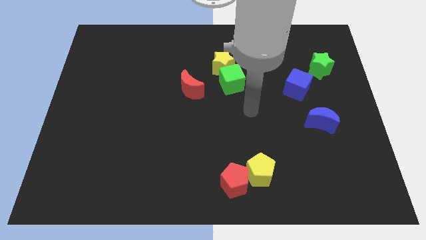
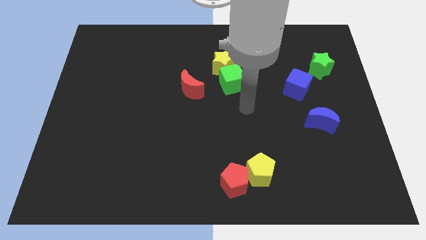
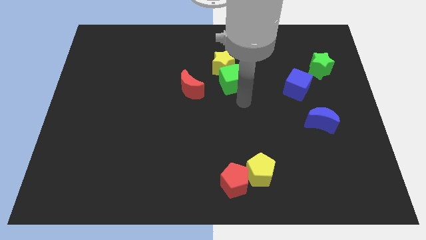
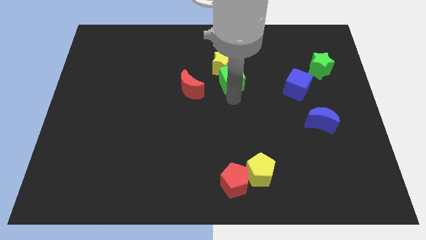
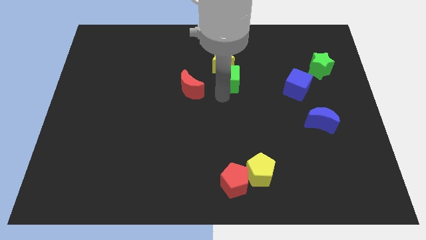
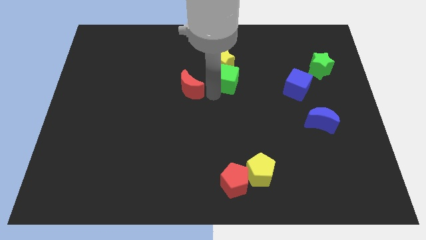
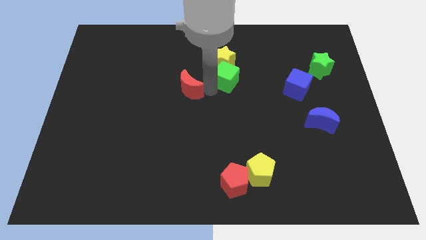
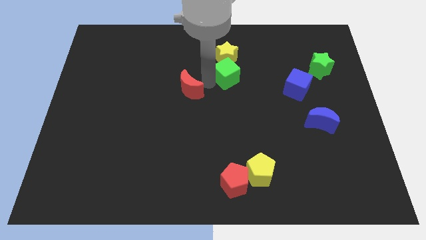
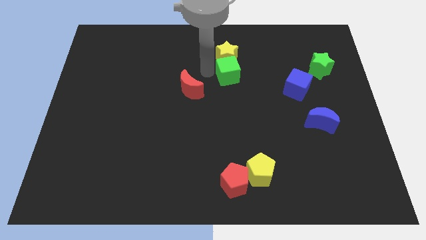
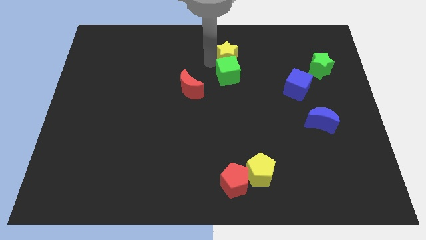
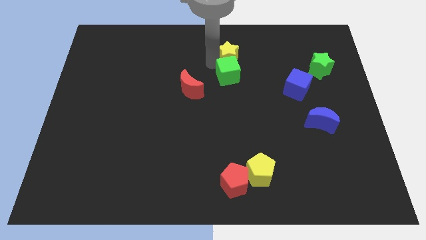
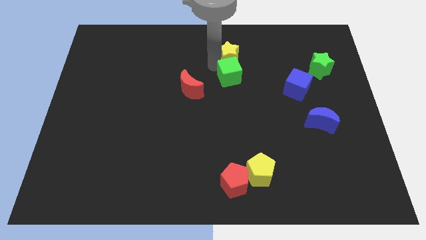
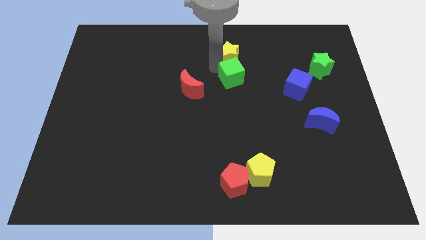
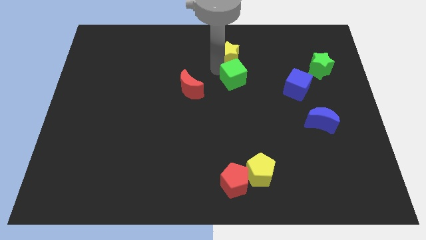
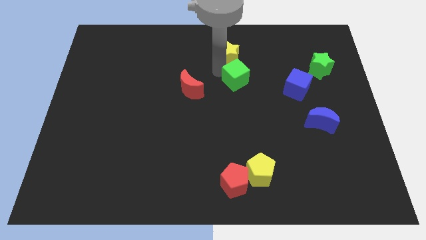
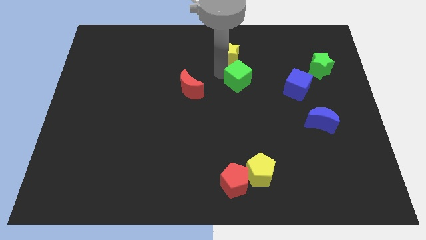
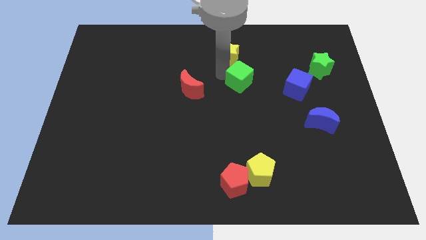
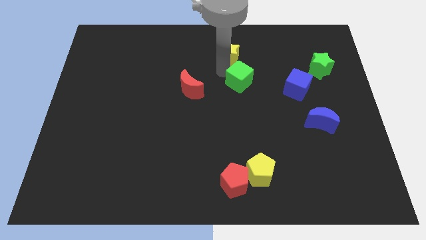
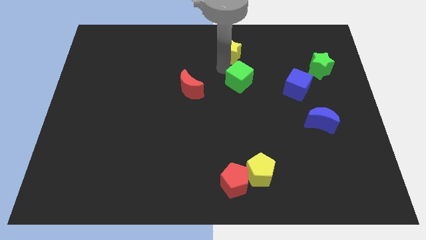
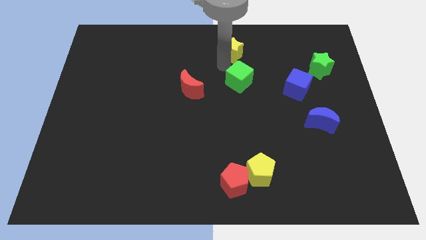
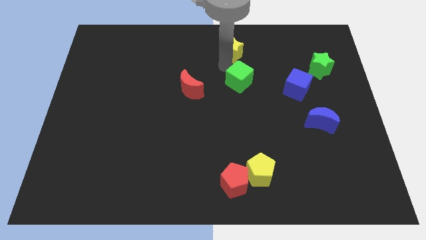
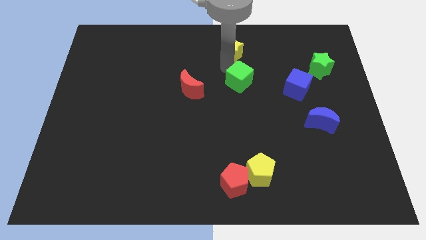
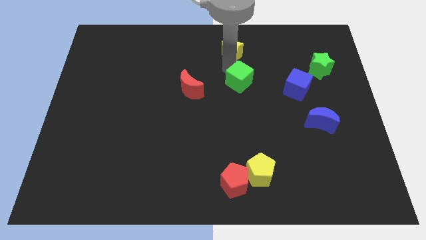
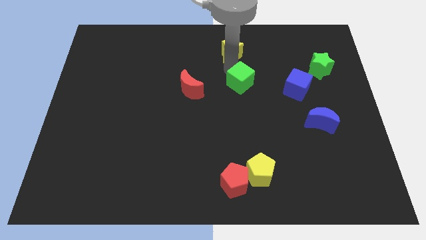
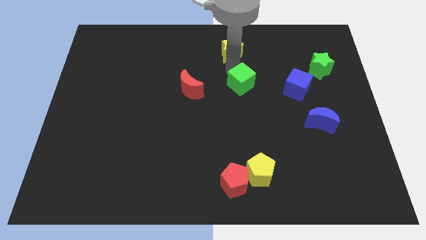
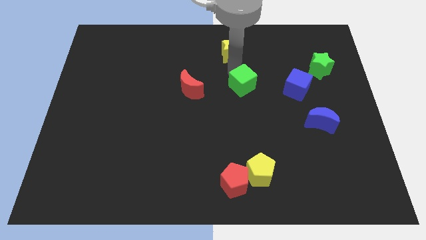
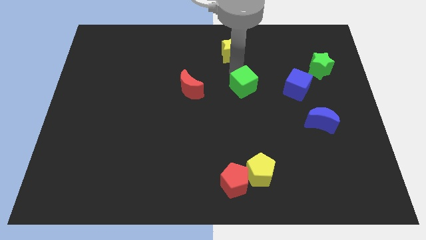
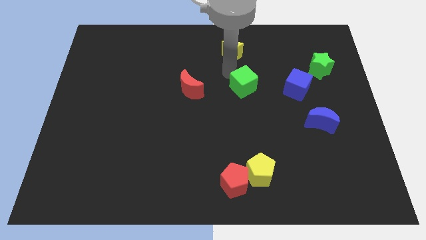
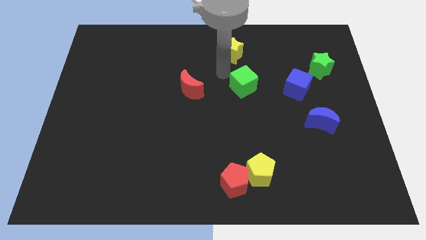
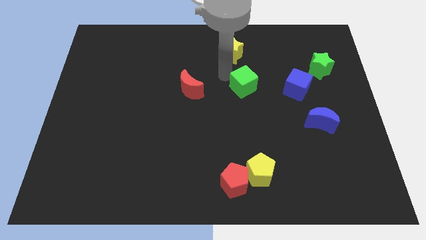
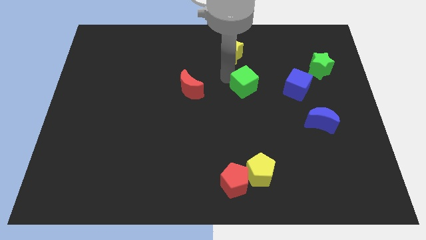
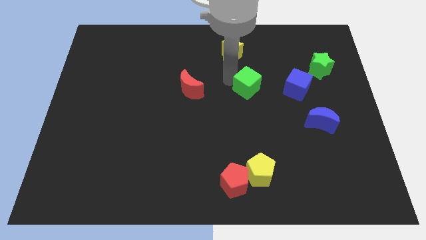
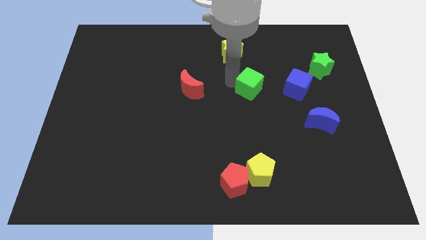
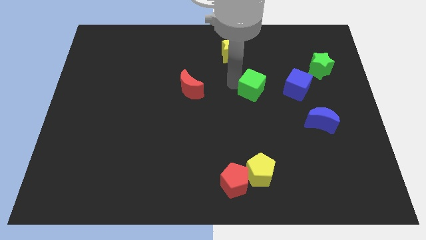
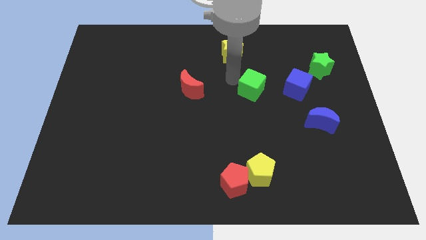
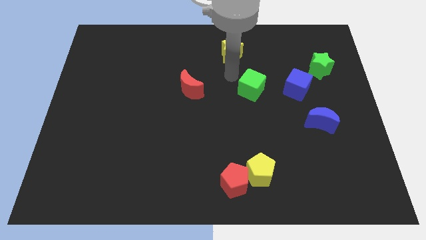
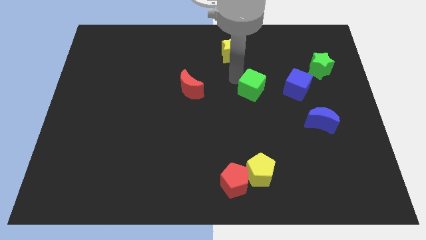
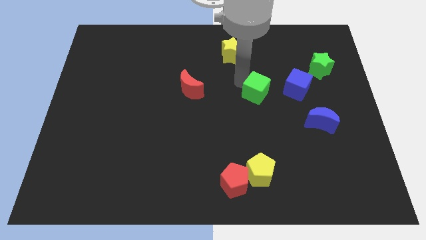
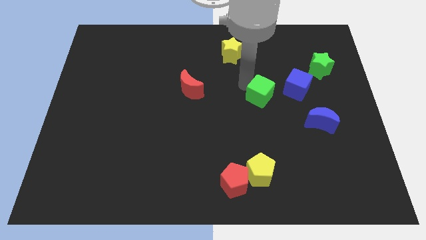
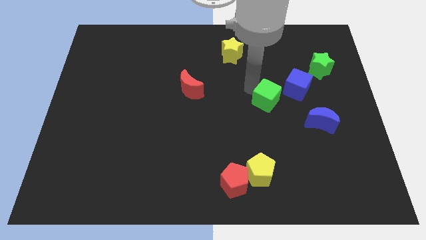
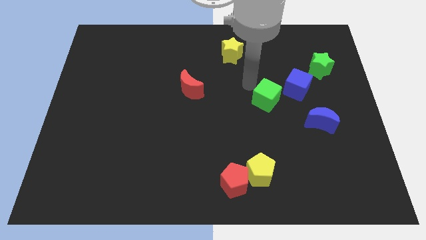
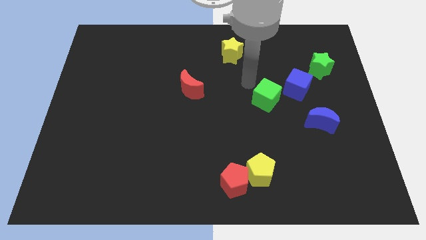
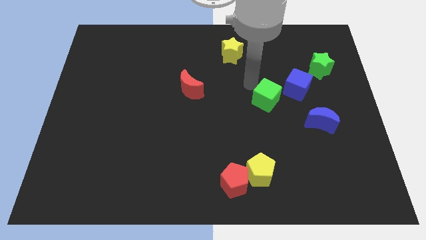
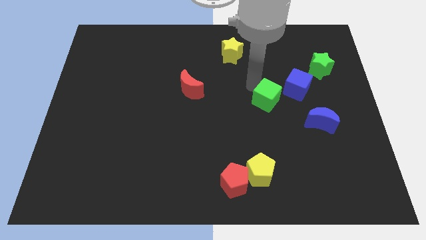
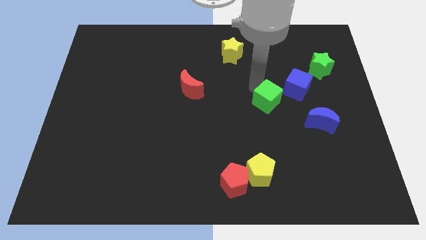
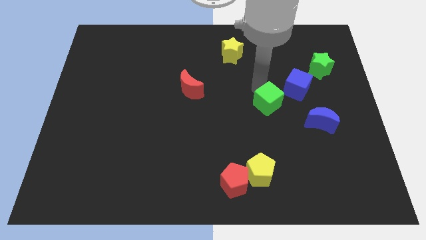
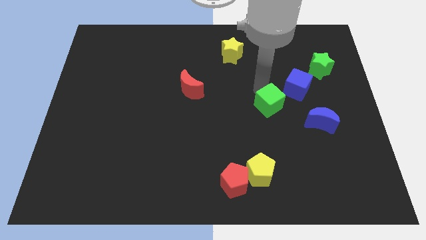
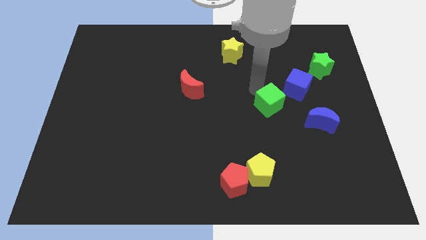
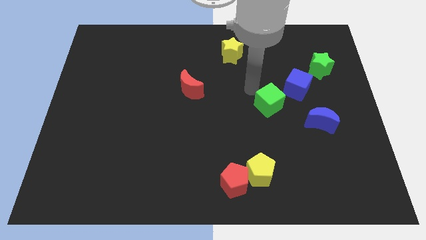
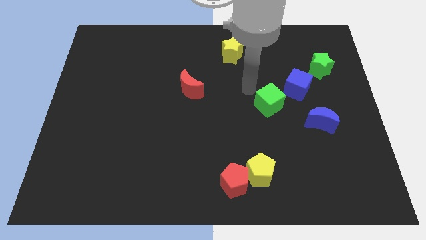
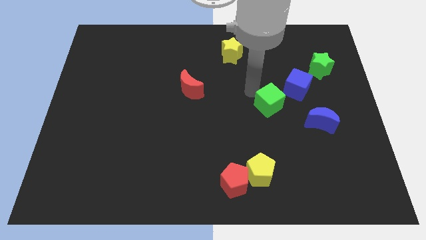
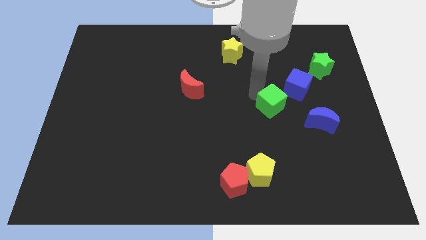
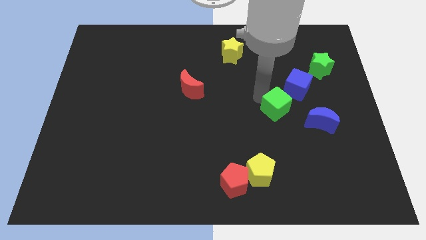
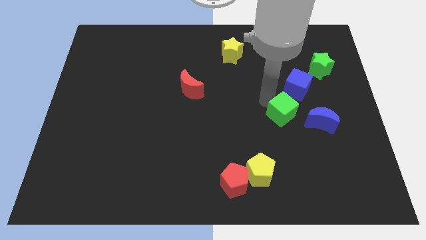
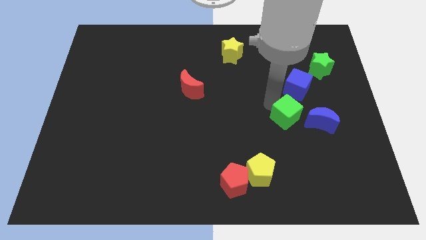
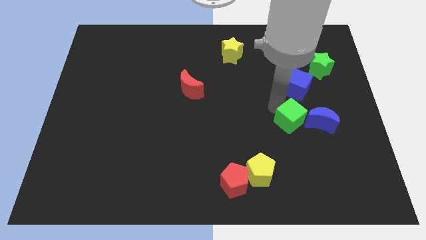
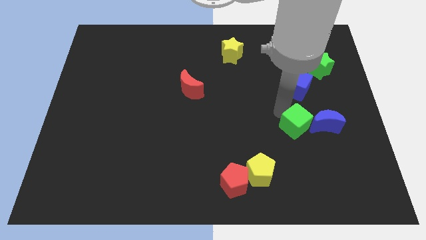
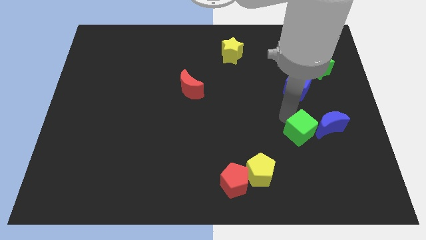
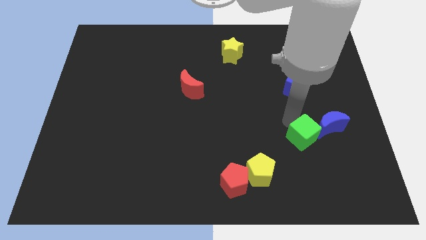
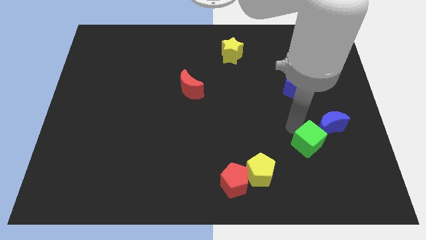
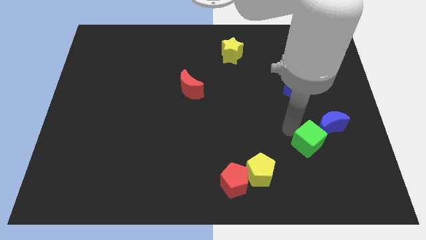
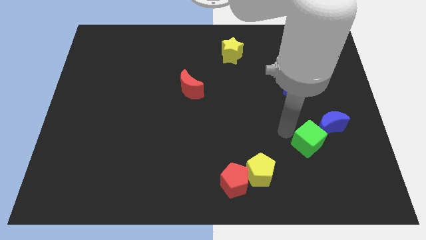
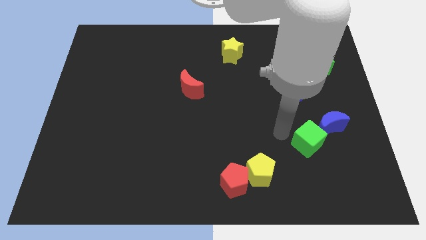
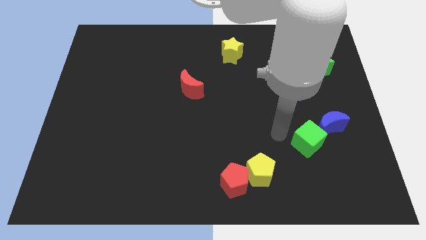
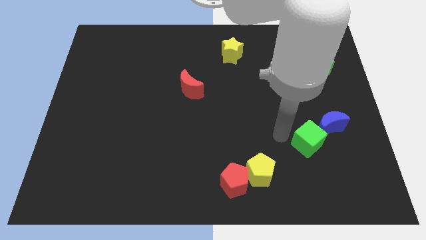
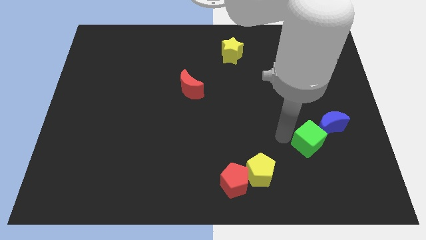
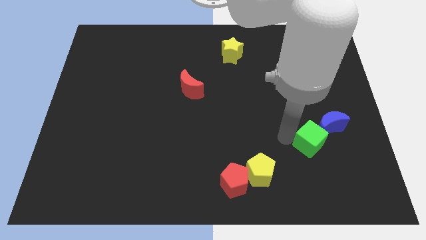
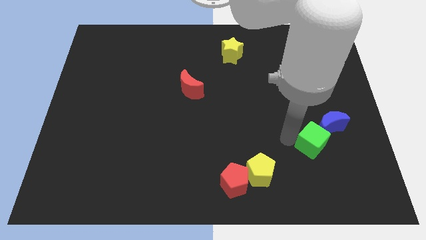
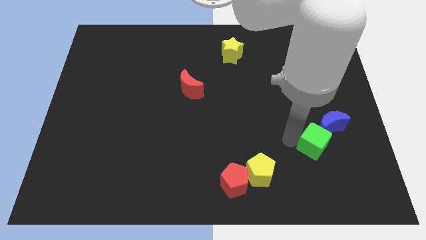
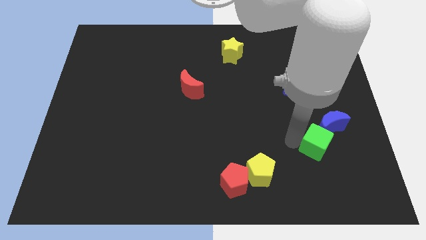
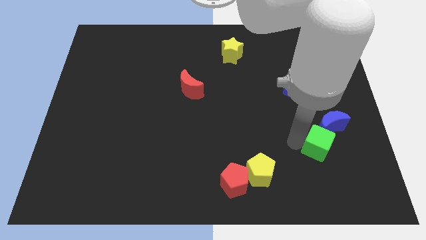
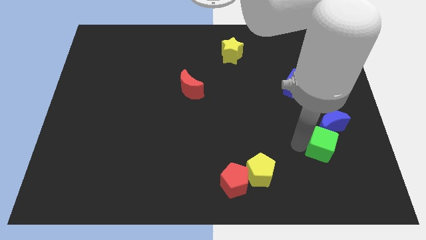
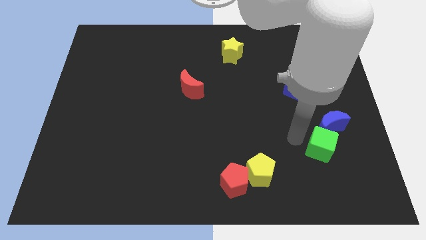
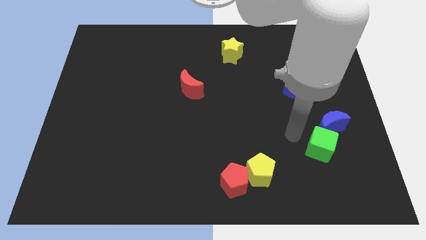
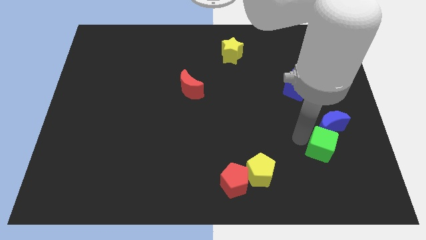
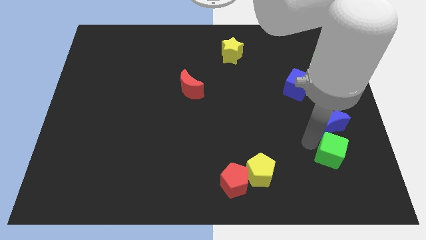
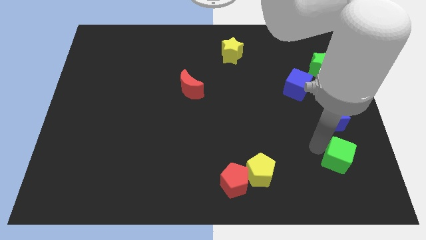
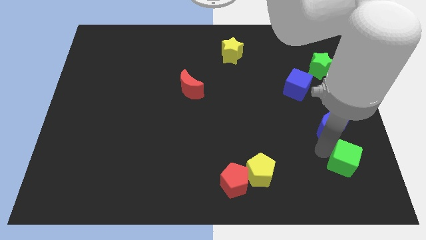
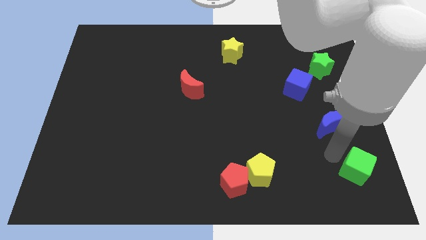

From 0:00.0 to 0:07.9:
put the green cube to the bottom right corner
